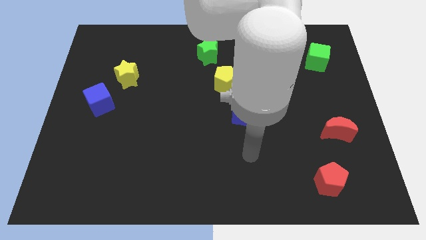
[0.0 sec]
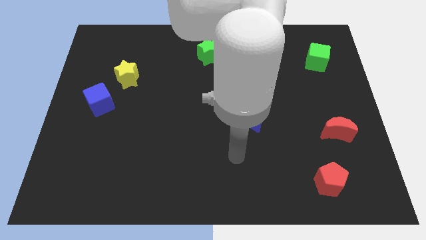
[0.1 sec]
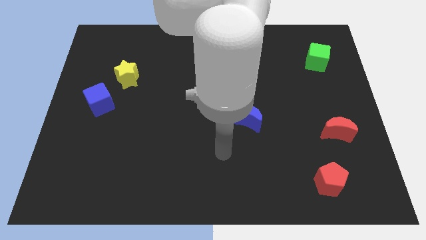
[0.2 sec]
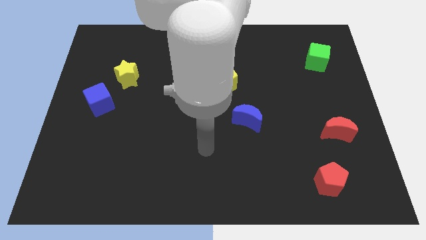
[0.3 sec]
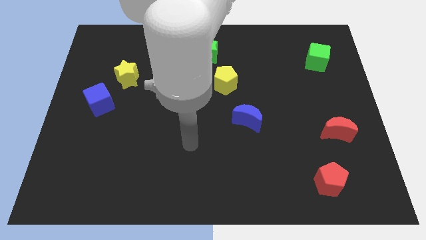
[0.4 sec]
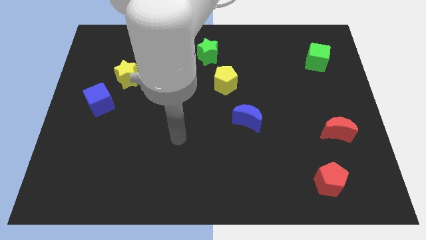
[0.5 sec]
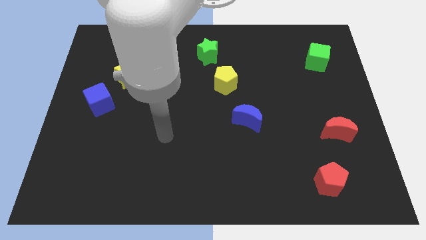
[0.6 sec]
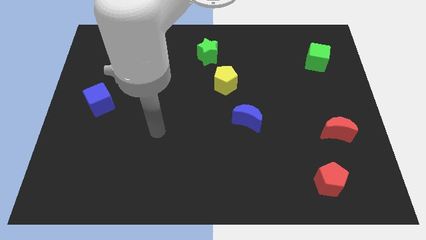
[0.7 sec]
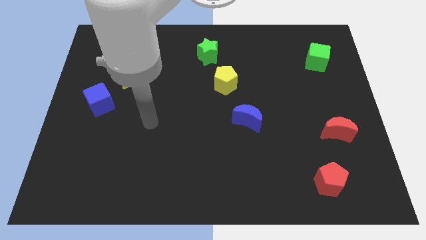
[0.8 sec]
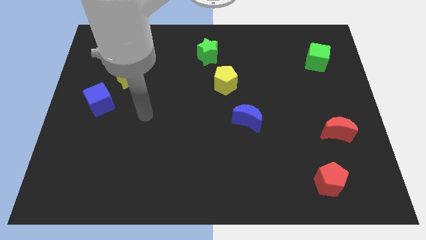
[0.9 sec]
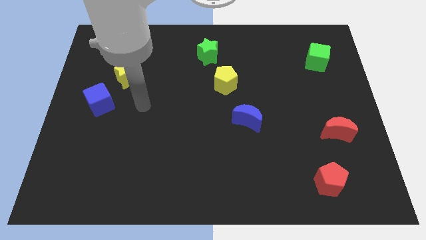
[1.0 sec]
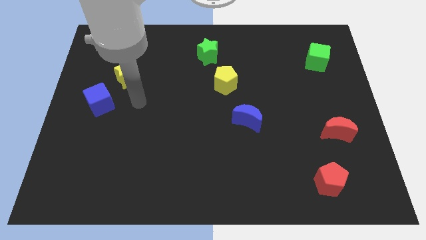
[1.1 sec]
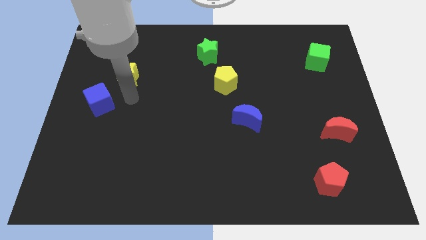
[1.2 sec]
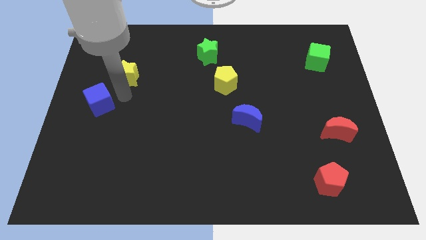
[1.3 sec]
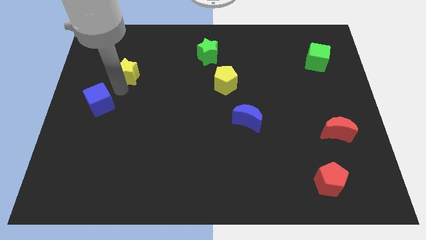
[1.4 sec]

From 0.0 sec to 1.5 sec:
move the blue cube away from the yellow star

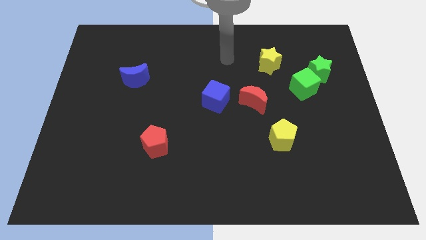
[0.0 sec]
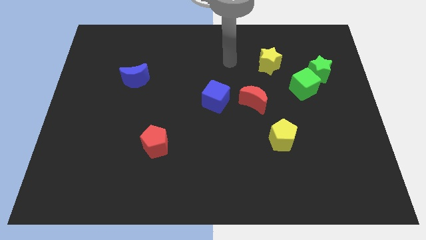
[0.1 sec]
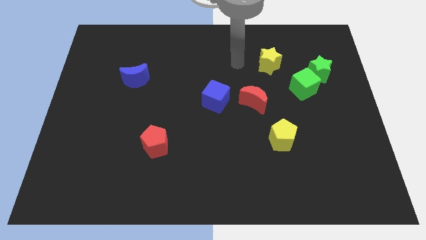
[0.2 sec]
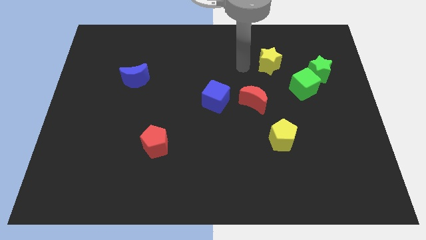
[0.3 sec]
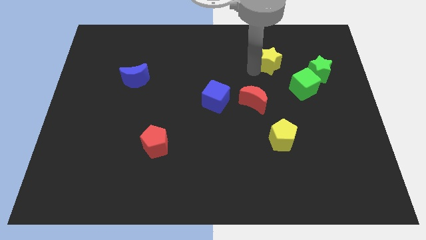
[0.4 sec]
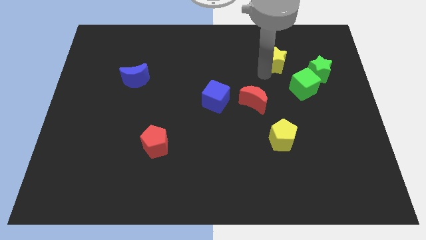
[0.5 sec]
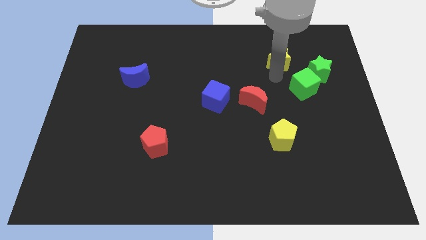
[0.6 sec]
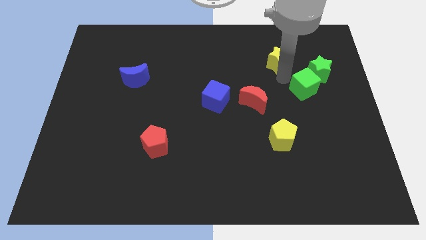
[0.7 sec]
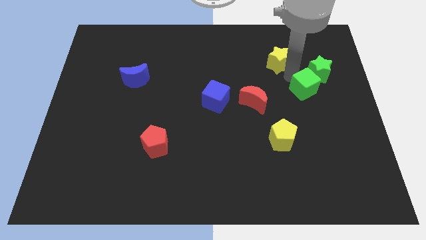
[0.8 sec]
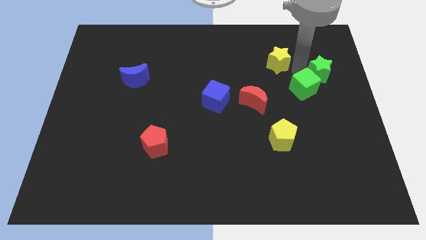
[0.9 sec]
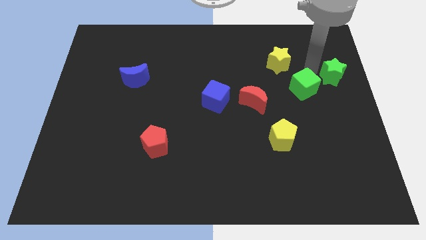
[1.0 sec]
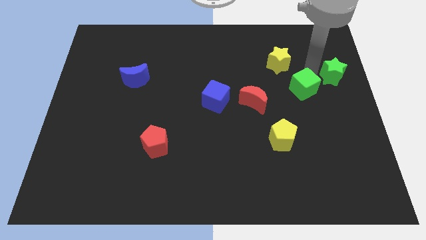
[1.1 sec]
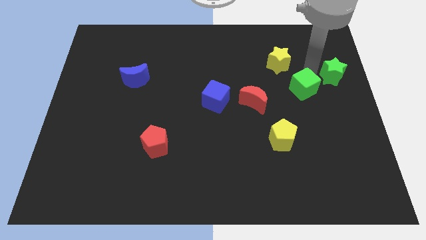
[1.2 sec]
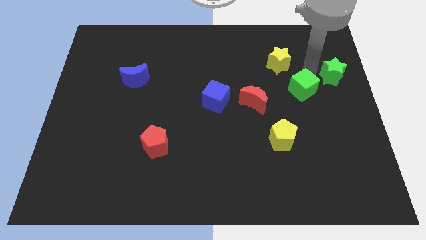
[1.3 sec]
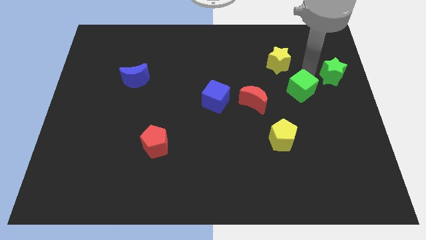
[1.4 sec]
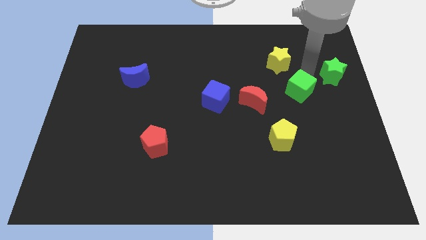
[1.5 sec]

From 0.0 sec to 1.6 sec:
pull the green cube apart from the green star

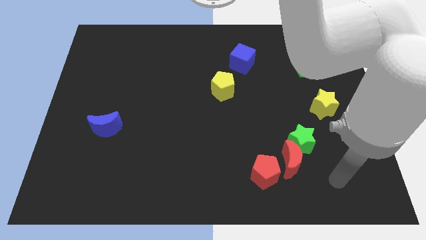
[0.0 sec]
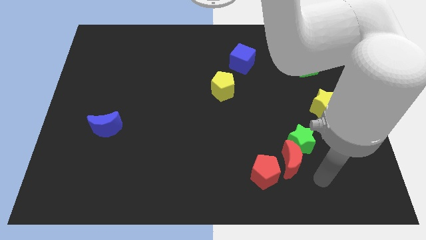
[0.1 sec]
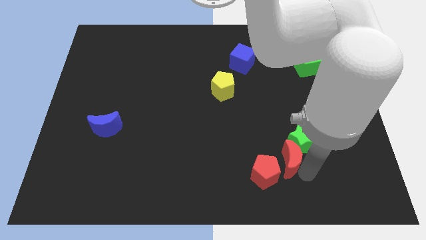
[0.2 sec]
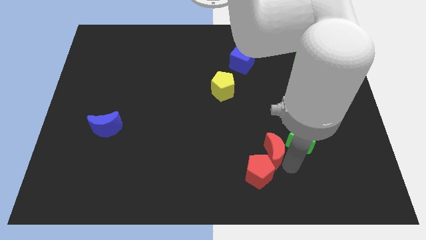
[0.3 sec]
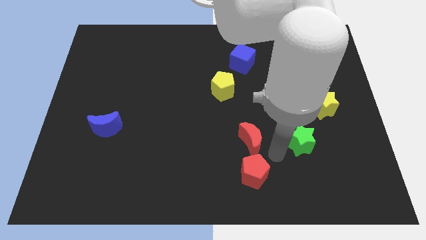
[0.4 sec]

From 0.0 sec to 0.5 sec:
move the green star away from the red moon

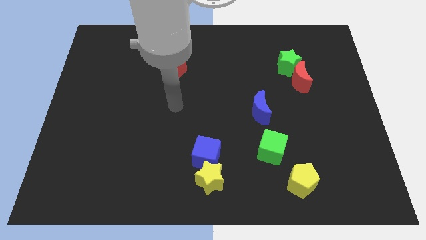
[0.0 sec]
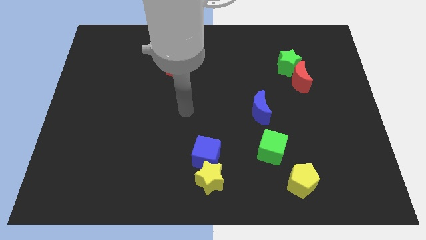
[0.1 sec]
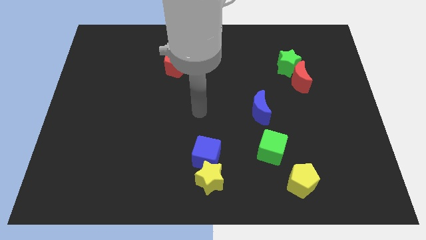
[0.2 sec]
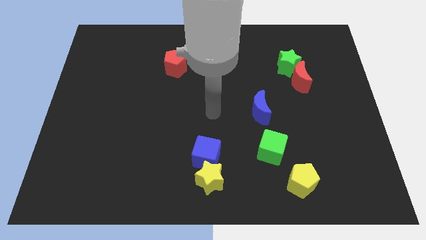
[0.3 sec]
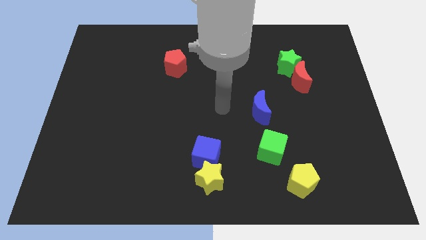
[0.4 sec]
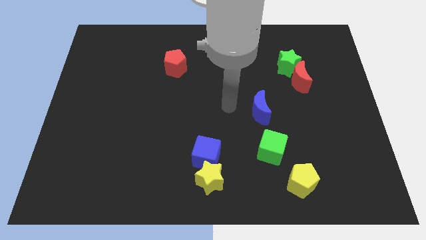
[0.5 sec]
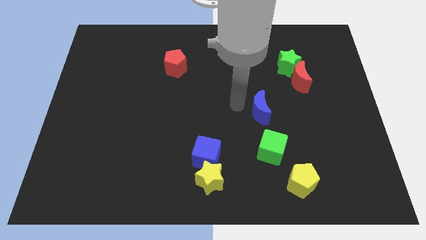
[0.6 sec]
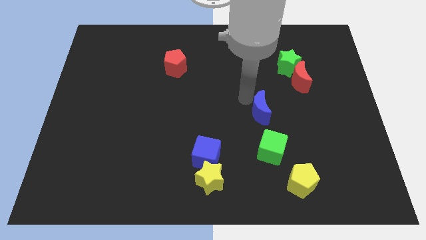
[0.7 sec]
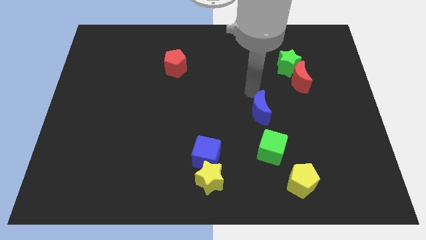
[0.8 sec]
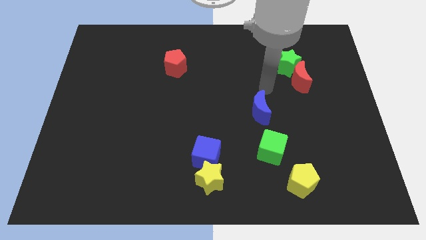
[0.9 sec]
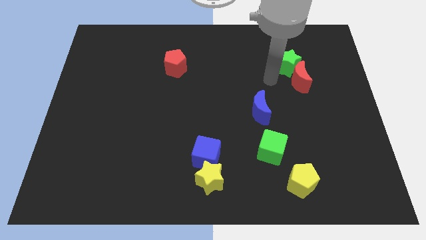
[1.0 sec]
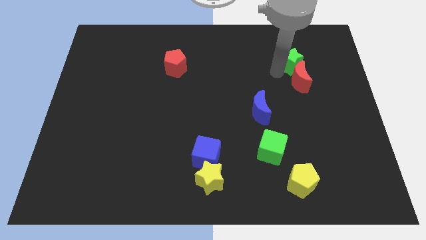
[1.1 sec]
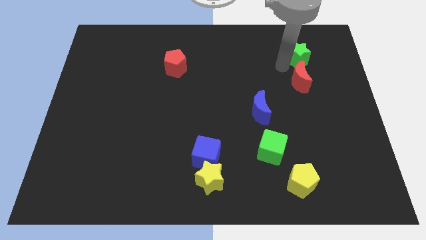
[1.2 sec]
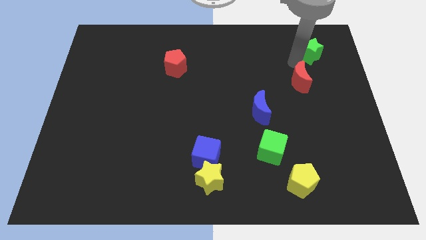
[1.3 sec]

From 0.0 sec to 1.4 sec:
separate the red moon from the green star

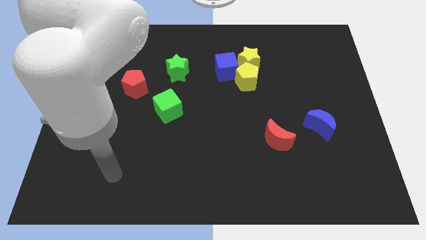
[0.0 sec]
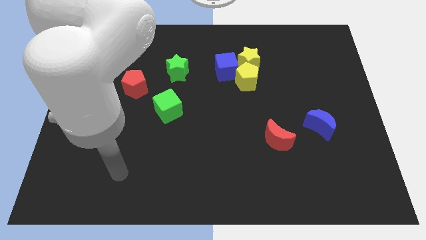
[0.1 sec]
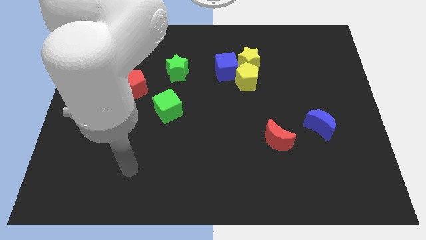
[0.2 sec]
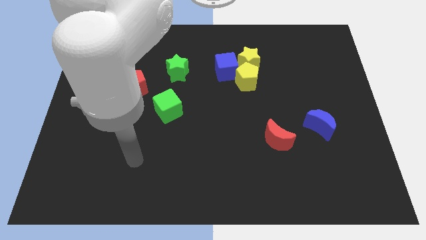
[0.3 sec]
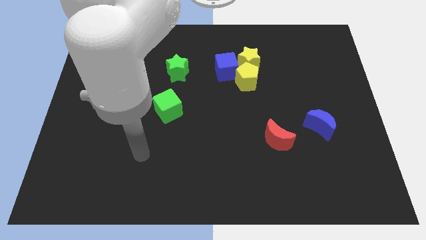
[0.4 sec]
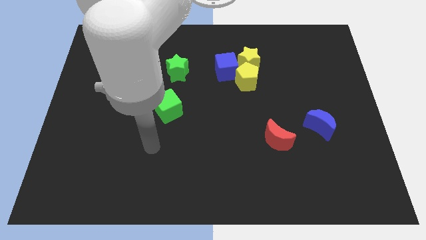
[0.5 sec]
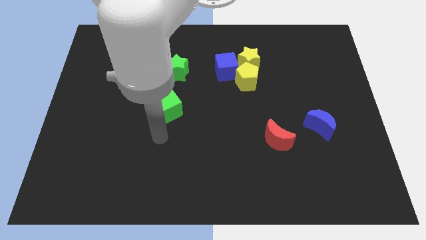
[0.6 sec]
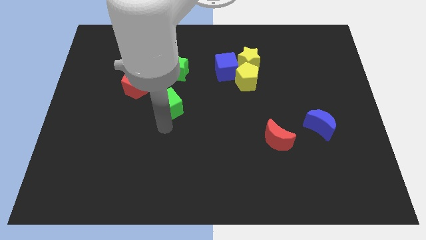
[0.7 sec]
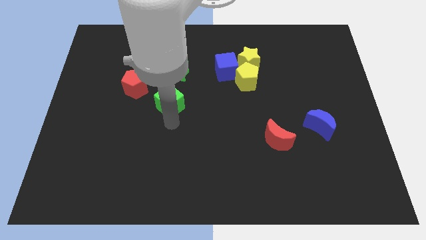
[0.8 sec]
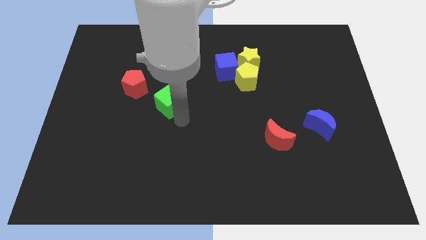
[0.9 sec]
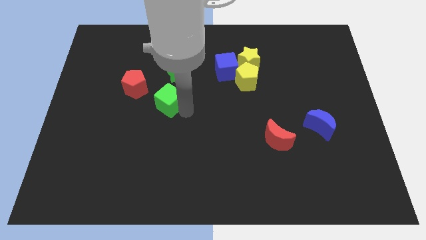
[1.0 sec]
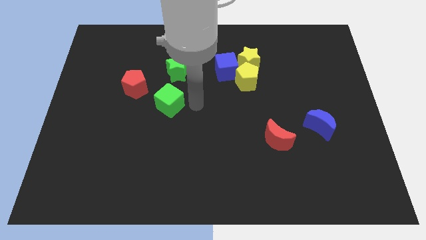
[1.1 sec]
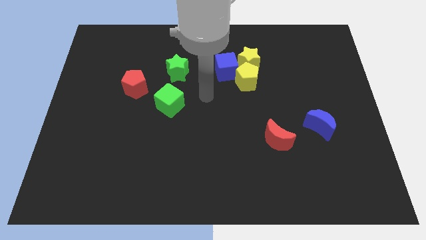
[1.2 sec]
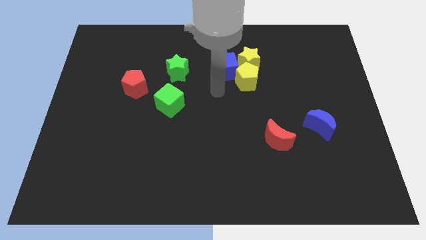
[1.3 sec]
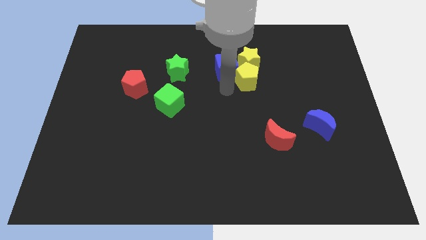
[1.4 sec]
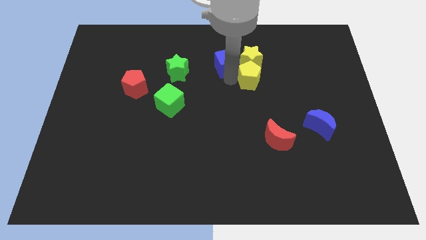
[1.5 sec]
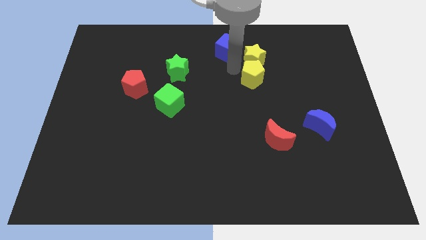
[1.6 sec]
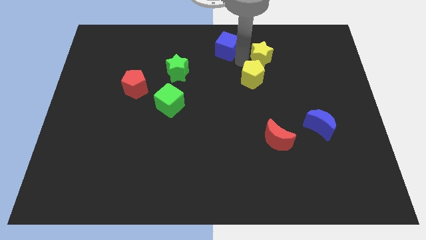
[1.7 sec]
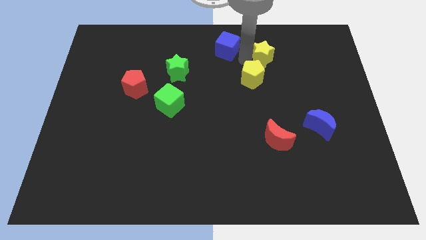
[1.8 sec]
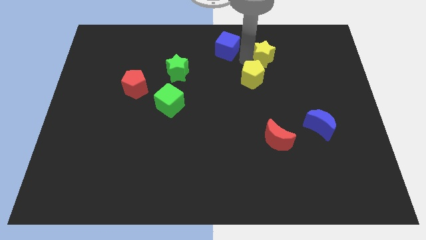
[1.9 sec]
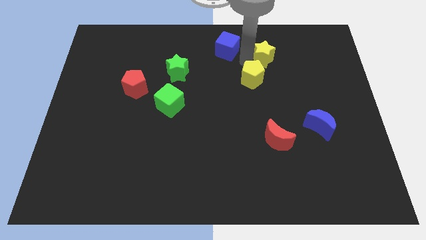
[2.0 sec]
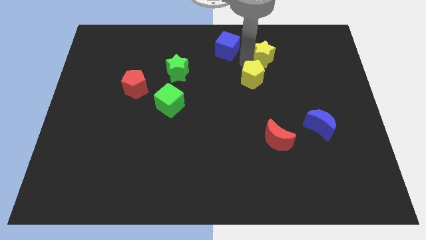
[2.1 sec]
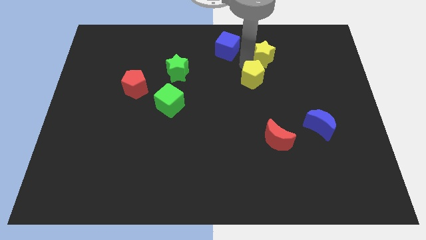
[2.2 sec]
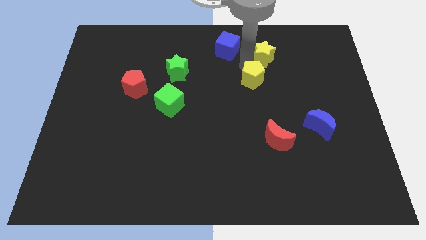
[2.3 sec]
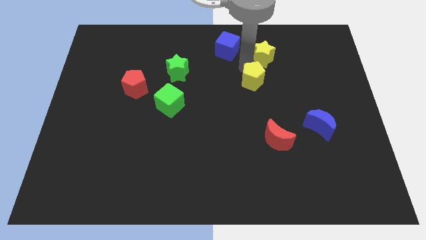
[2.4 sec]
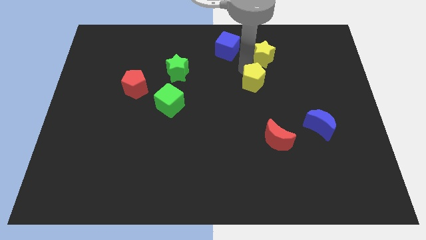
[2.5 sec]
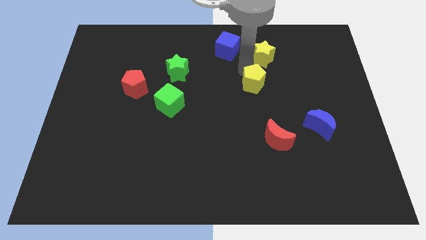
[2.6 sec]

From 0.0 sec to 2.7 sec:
pull the yellow pentagon apart from the yellow star and blue cube

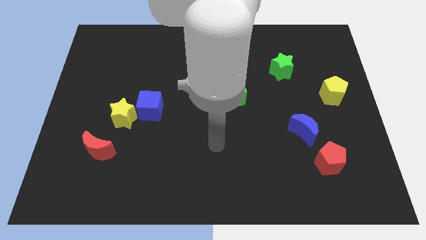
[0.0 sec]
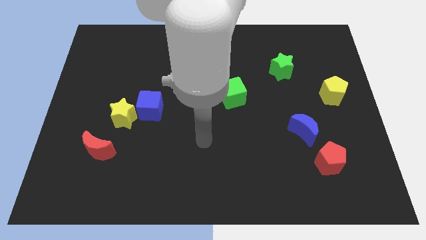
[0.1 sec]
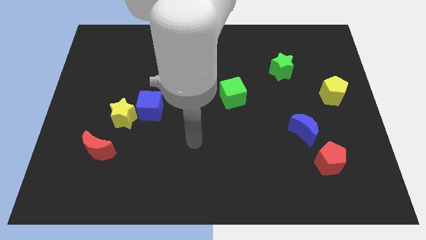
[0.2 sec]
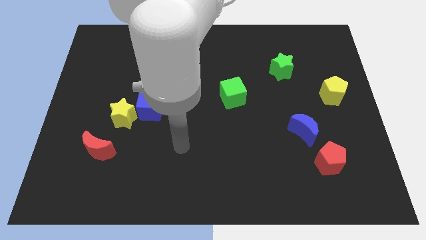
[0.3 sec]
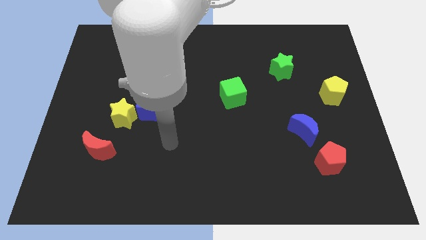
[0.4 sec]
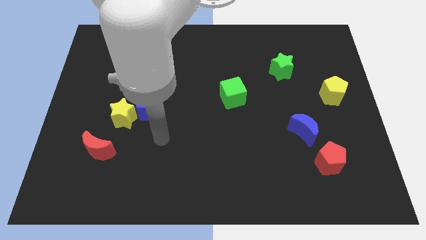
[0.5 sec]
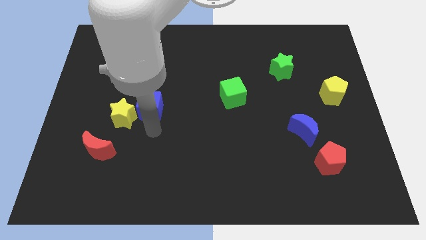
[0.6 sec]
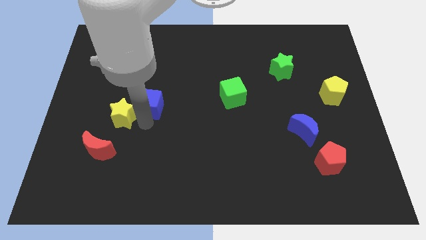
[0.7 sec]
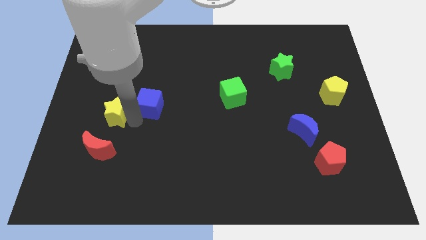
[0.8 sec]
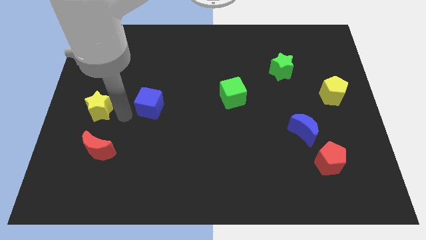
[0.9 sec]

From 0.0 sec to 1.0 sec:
pull the blue cube apart from the yellow star

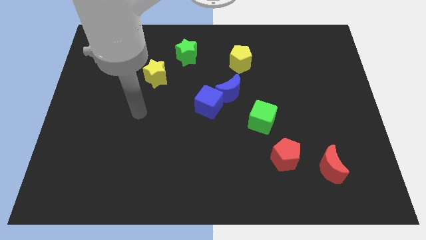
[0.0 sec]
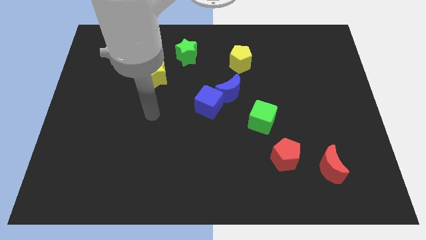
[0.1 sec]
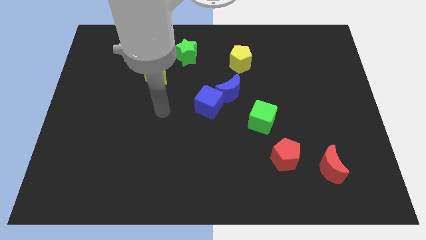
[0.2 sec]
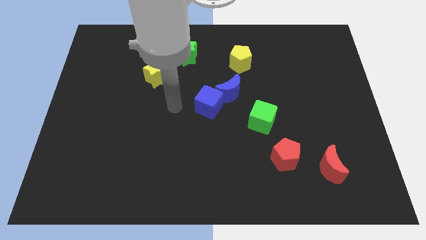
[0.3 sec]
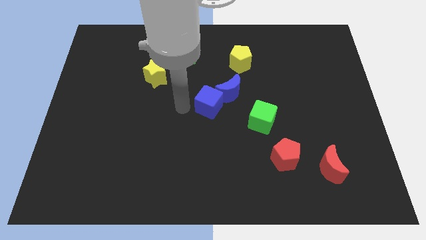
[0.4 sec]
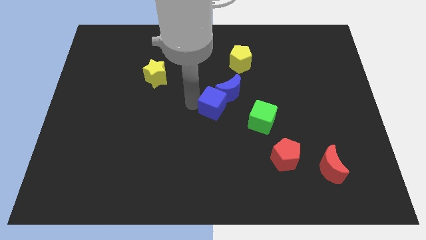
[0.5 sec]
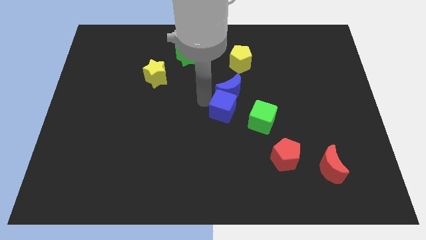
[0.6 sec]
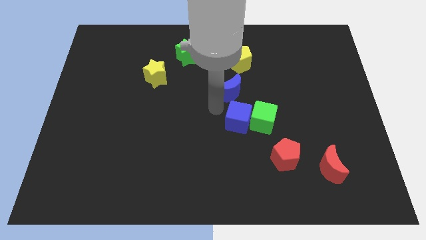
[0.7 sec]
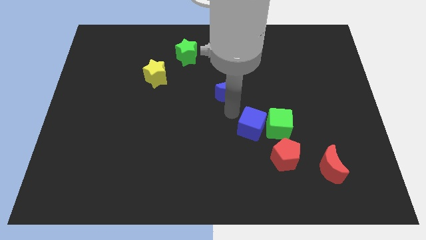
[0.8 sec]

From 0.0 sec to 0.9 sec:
pull the blue moon apart from the blue cube
